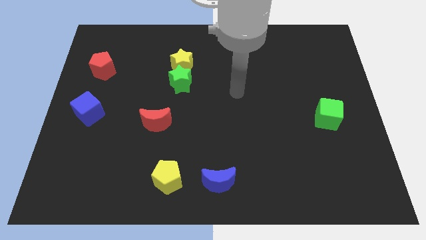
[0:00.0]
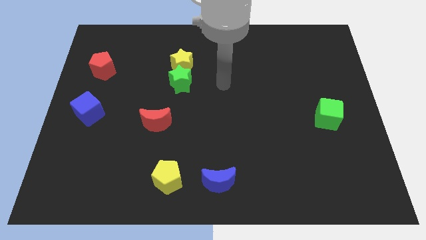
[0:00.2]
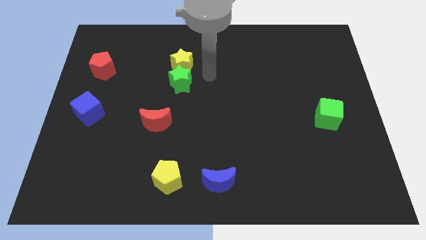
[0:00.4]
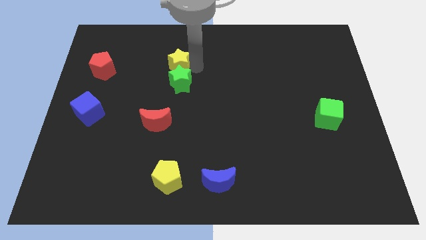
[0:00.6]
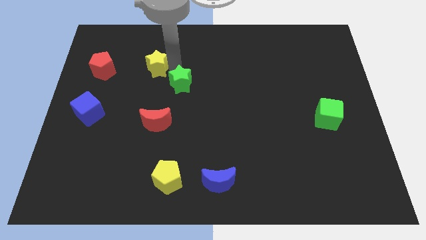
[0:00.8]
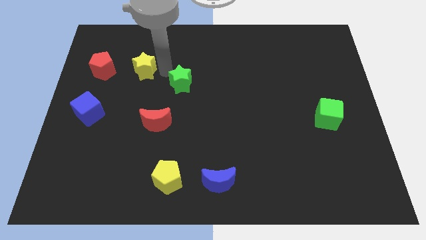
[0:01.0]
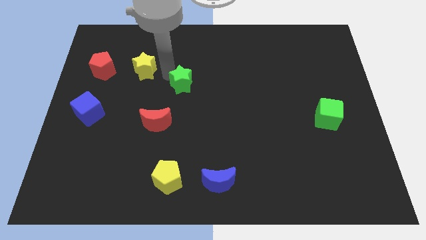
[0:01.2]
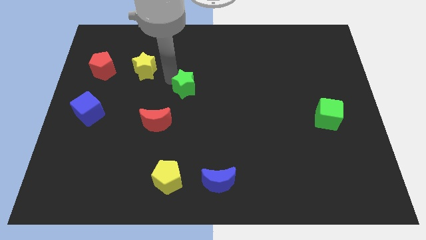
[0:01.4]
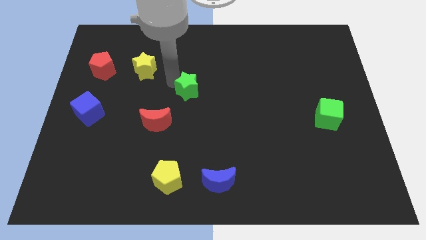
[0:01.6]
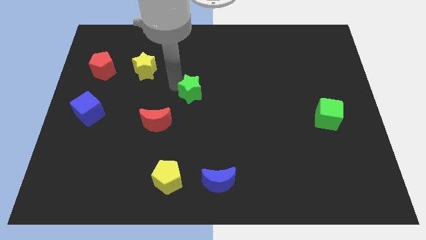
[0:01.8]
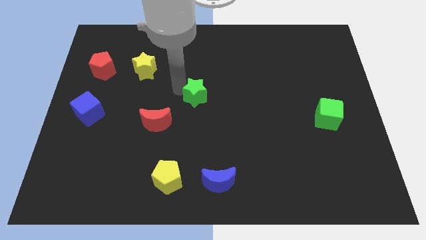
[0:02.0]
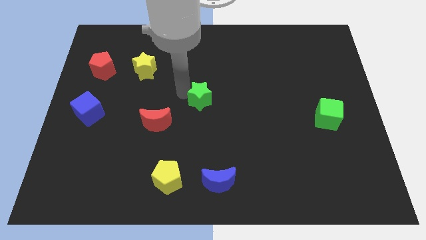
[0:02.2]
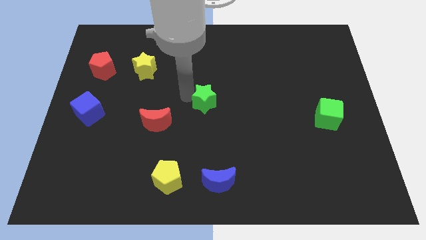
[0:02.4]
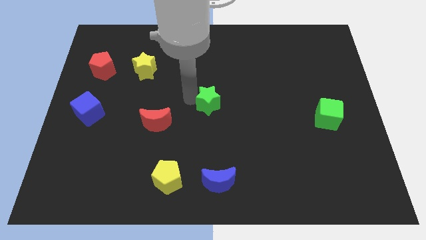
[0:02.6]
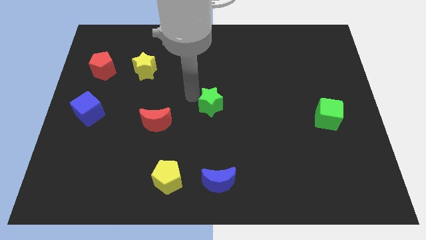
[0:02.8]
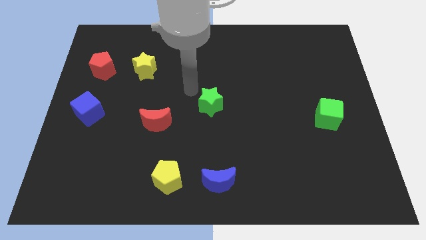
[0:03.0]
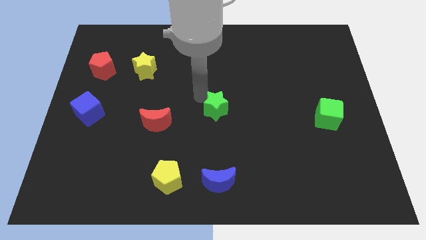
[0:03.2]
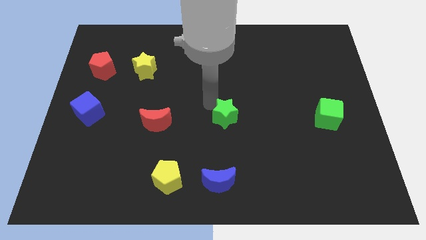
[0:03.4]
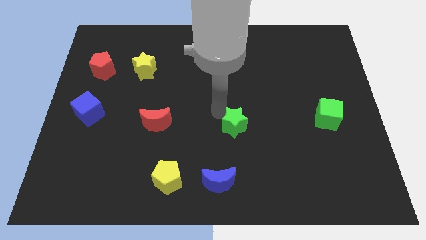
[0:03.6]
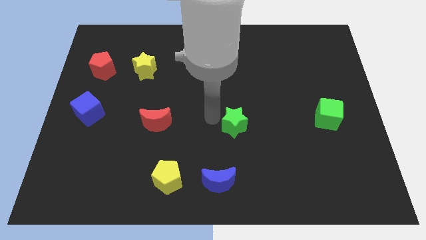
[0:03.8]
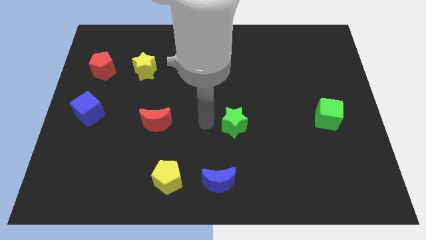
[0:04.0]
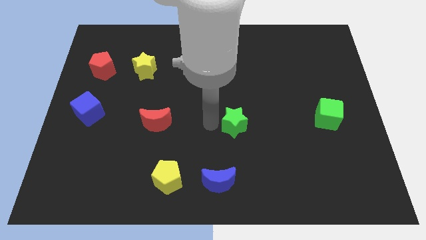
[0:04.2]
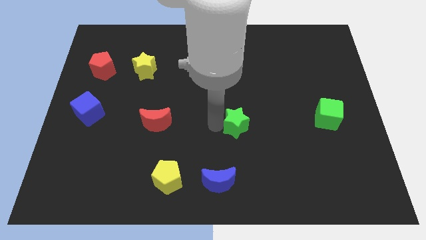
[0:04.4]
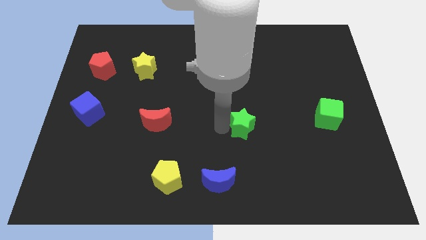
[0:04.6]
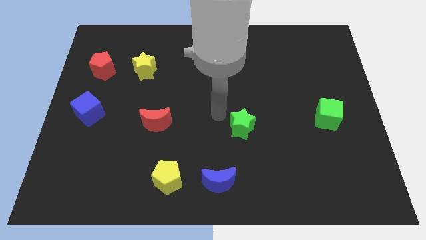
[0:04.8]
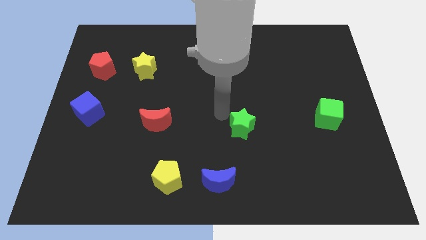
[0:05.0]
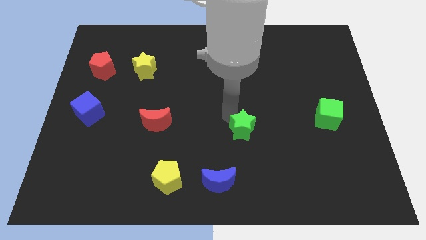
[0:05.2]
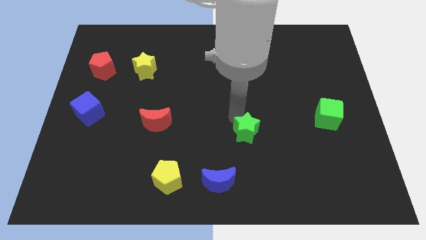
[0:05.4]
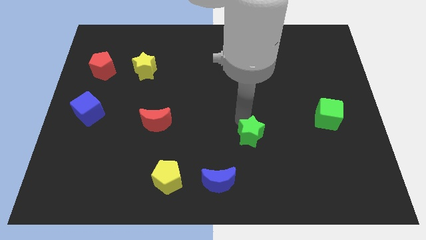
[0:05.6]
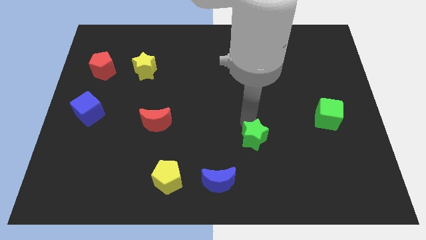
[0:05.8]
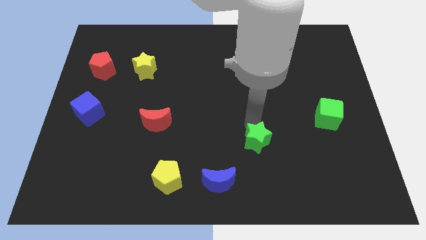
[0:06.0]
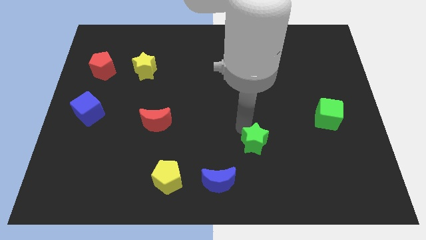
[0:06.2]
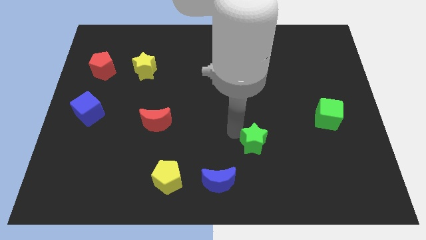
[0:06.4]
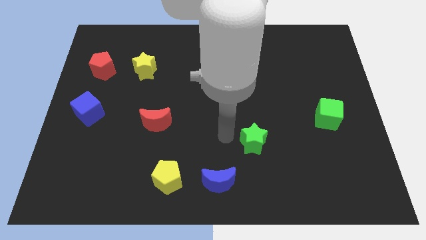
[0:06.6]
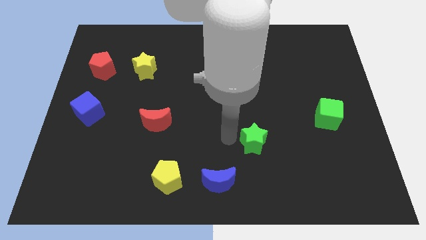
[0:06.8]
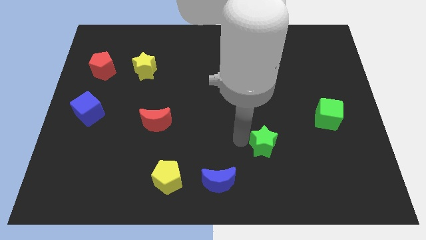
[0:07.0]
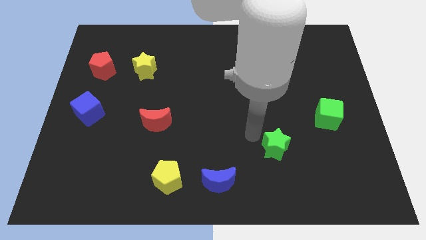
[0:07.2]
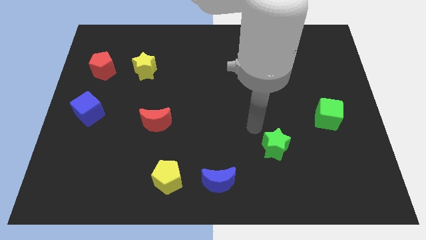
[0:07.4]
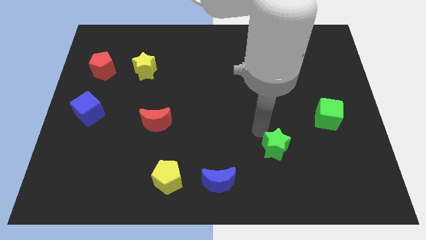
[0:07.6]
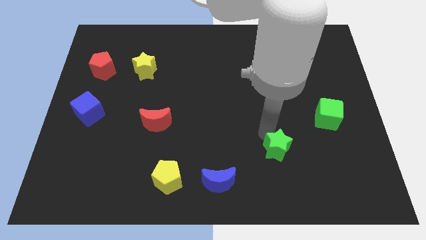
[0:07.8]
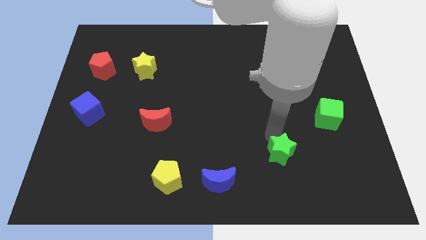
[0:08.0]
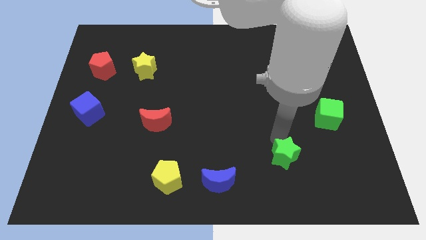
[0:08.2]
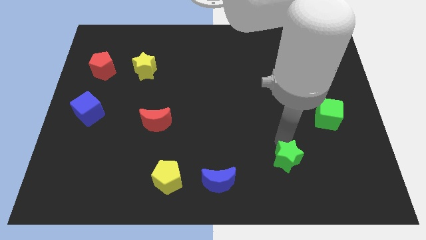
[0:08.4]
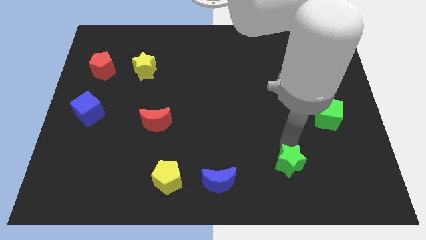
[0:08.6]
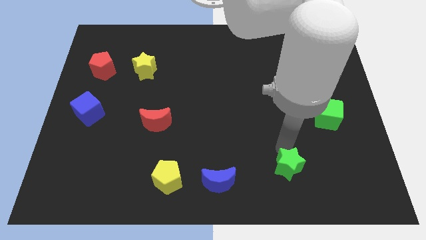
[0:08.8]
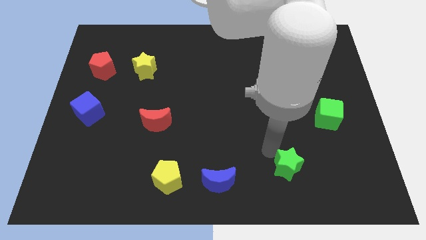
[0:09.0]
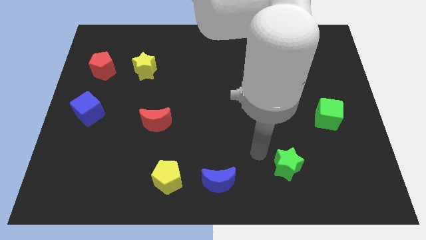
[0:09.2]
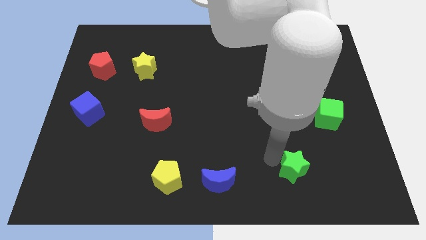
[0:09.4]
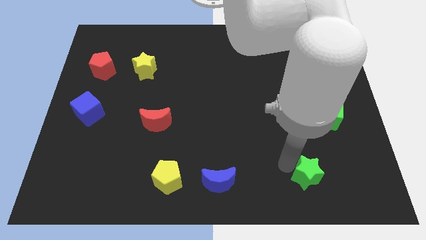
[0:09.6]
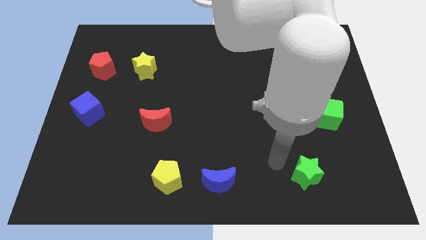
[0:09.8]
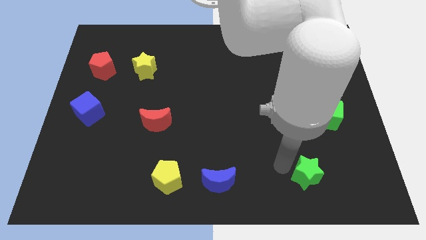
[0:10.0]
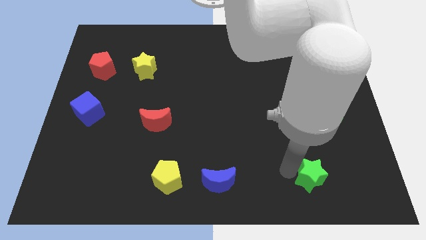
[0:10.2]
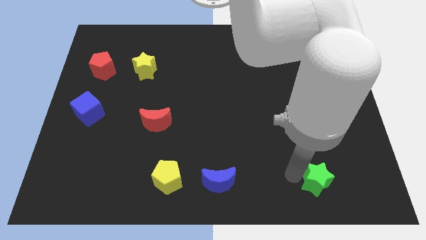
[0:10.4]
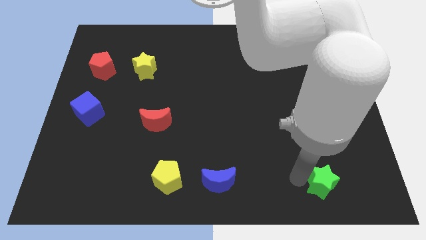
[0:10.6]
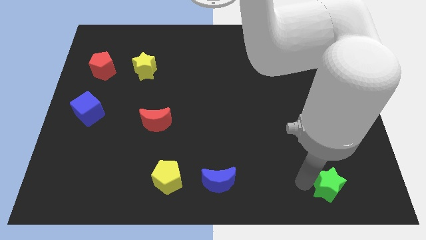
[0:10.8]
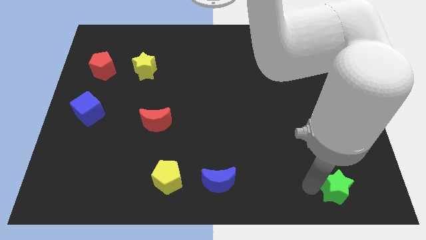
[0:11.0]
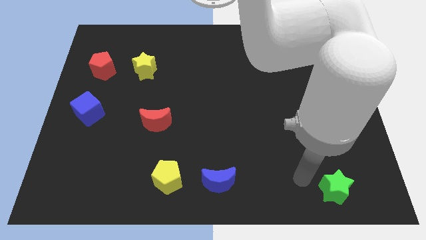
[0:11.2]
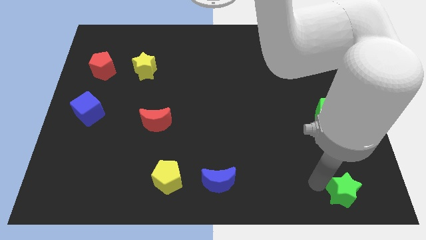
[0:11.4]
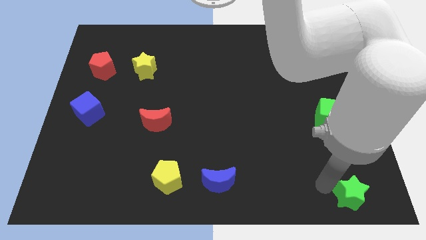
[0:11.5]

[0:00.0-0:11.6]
slide the green star to the lower right corner

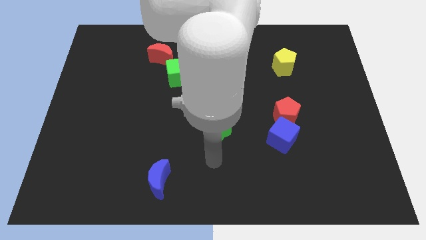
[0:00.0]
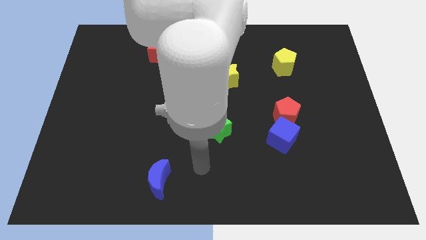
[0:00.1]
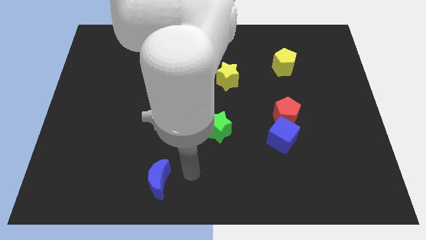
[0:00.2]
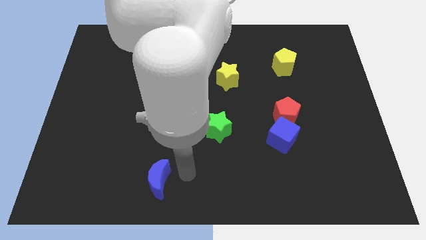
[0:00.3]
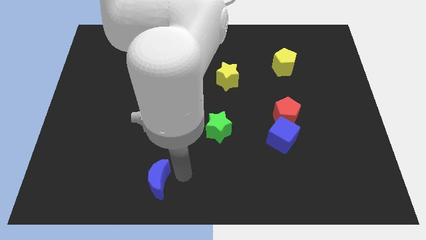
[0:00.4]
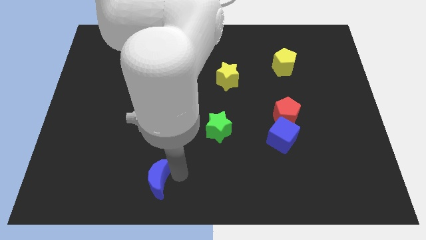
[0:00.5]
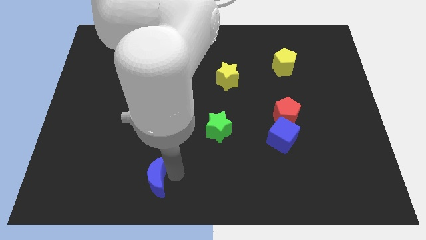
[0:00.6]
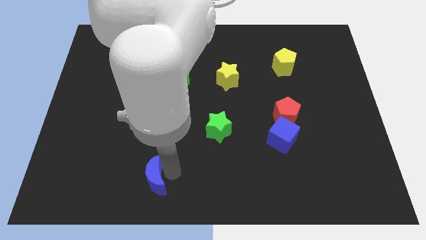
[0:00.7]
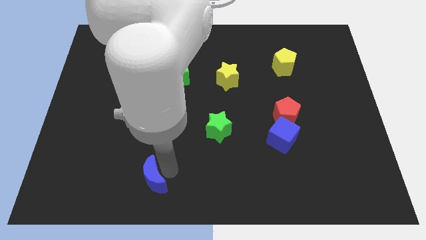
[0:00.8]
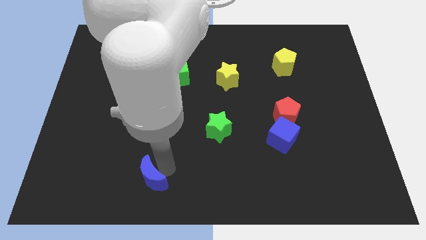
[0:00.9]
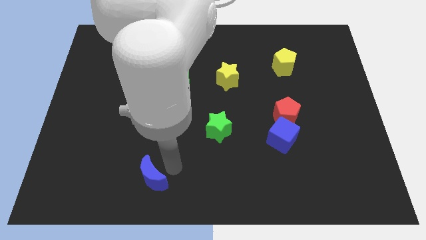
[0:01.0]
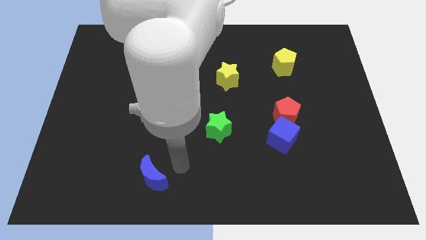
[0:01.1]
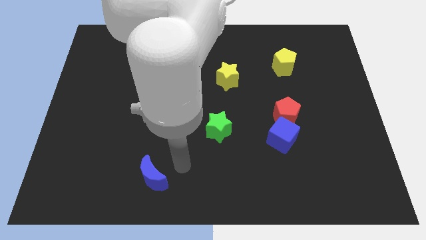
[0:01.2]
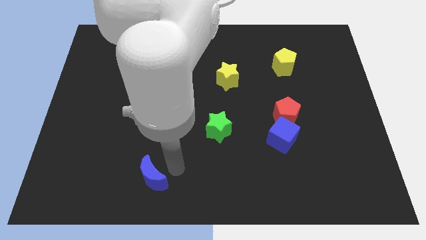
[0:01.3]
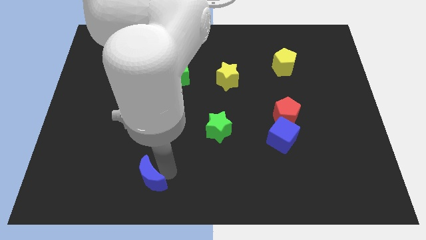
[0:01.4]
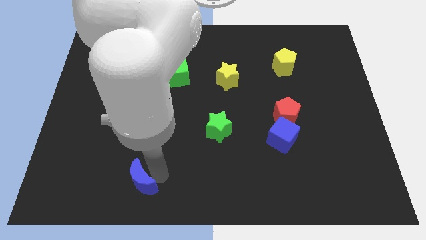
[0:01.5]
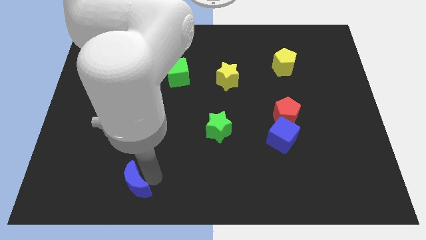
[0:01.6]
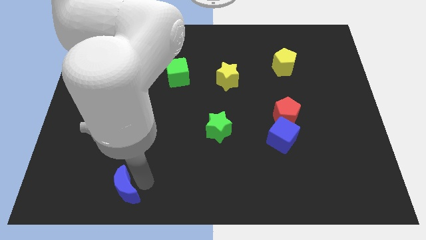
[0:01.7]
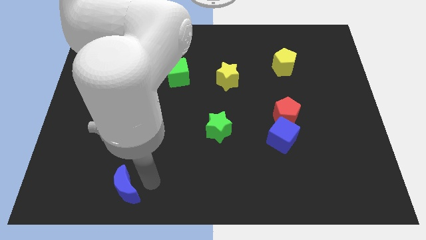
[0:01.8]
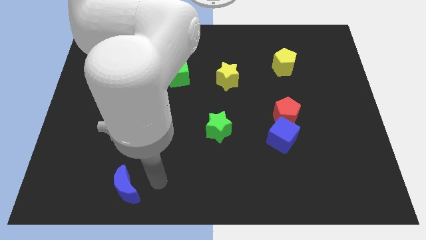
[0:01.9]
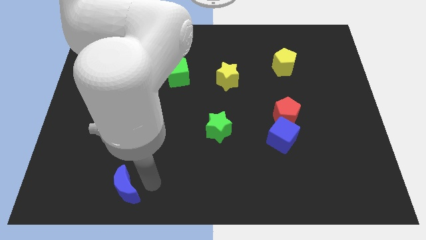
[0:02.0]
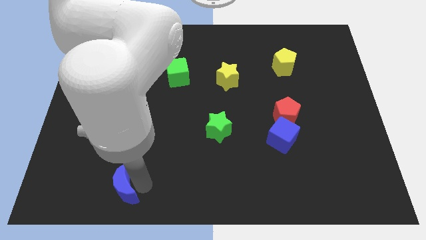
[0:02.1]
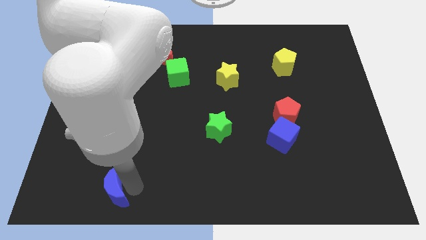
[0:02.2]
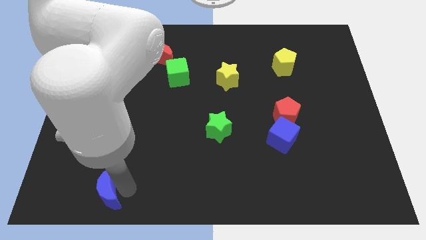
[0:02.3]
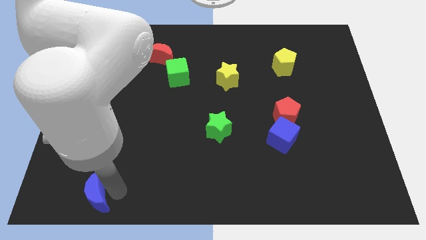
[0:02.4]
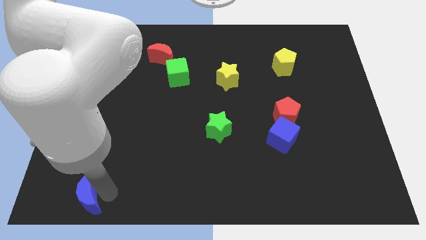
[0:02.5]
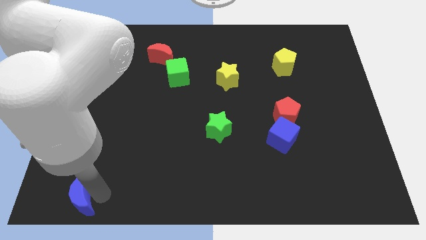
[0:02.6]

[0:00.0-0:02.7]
put the blue moon to the bottom left corner
